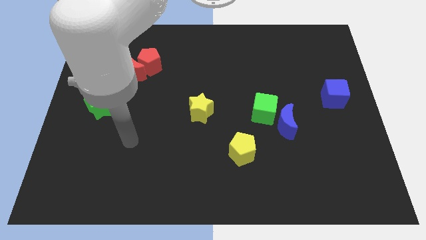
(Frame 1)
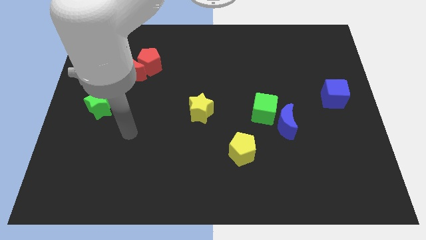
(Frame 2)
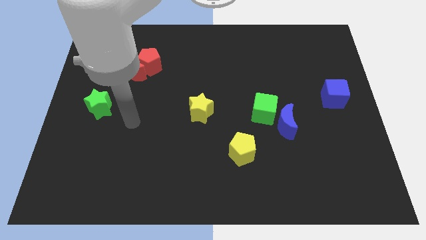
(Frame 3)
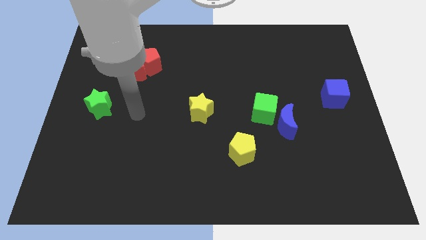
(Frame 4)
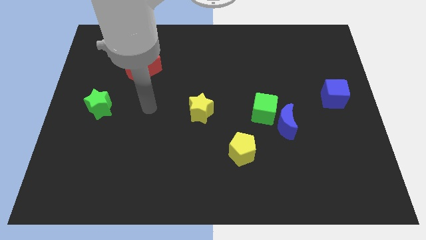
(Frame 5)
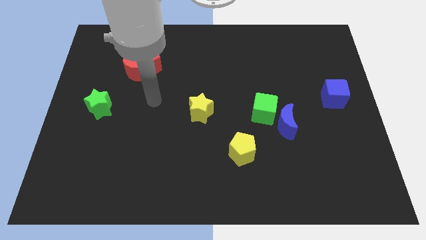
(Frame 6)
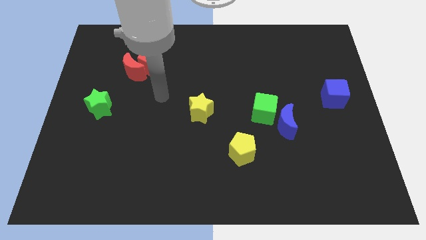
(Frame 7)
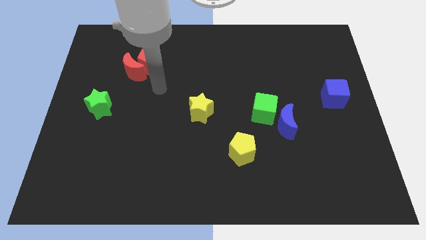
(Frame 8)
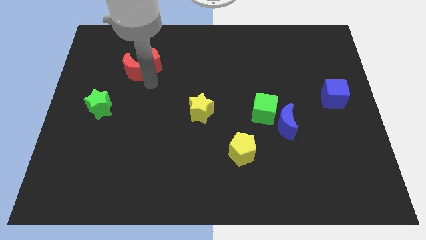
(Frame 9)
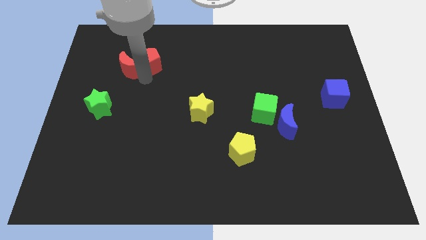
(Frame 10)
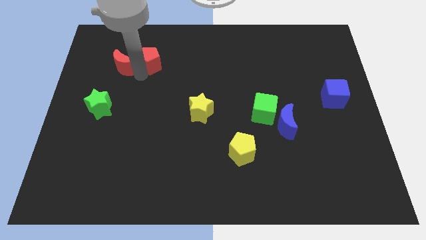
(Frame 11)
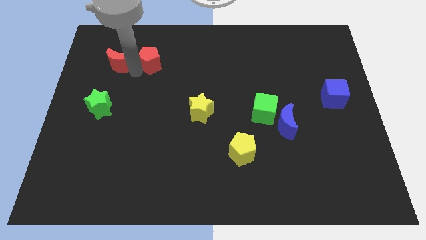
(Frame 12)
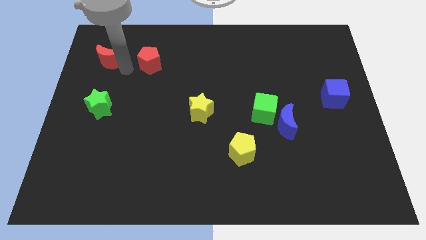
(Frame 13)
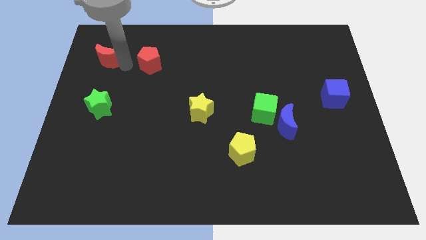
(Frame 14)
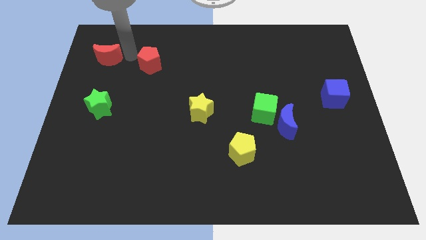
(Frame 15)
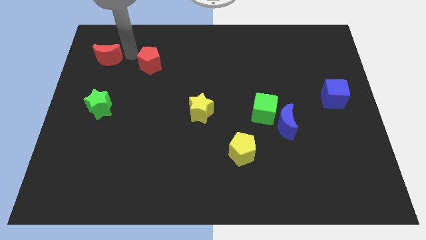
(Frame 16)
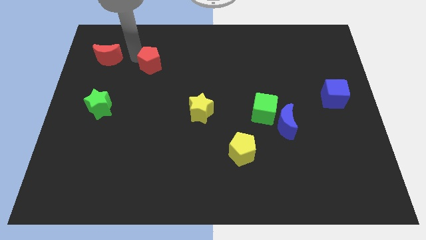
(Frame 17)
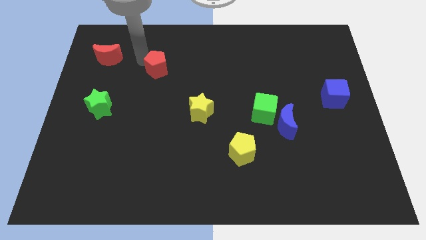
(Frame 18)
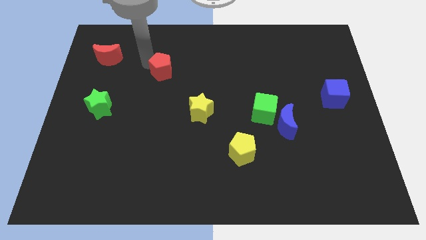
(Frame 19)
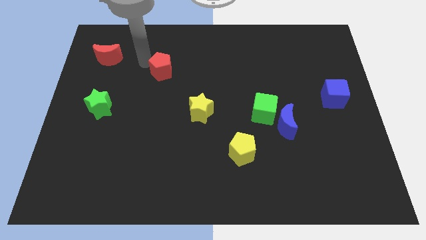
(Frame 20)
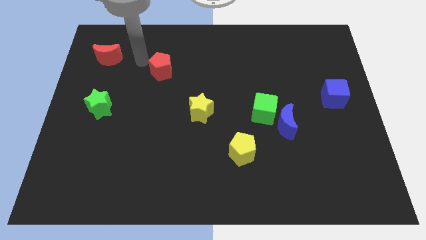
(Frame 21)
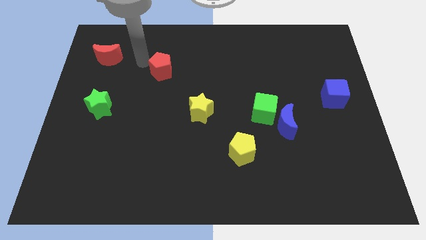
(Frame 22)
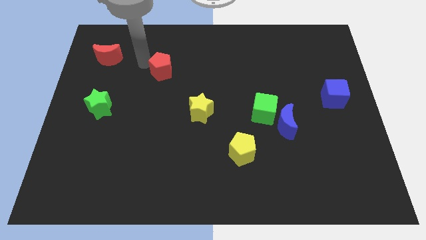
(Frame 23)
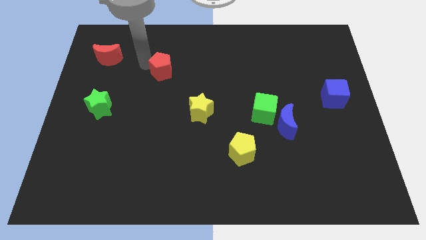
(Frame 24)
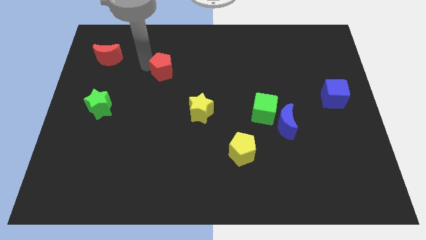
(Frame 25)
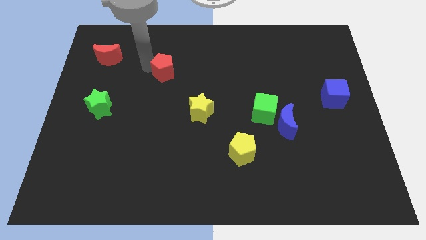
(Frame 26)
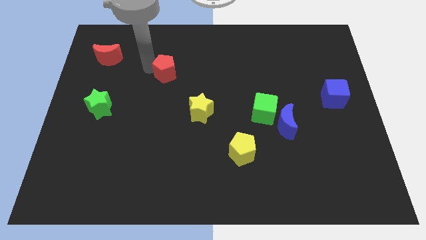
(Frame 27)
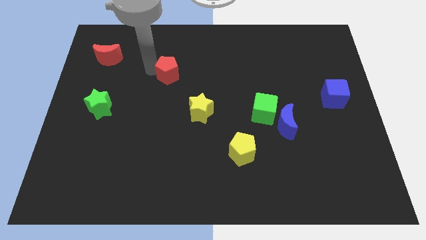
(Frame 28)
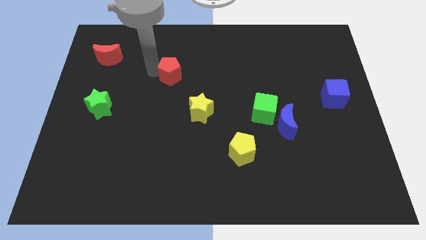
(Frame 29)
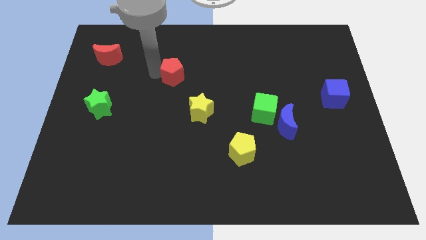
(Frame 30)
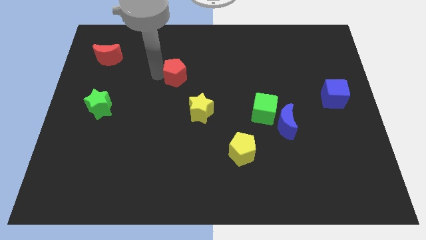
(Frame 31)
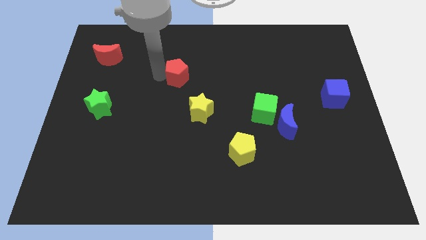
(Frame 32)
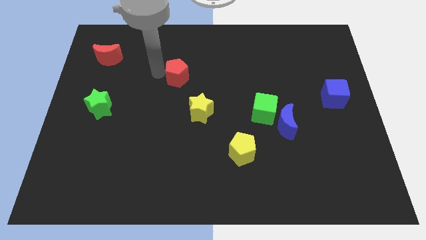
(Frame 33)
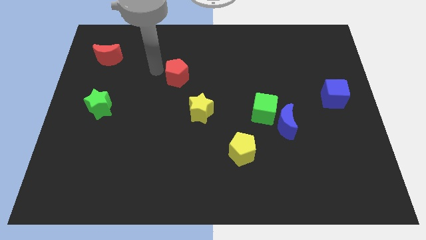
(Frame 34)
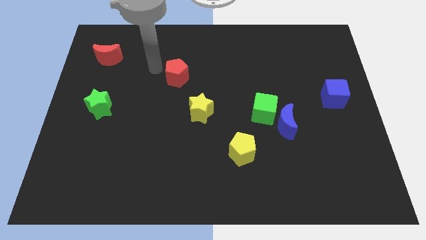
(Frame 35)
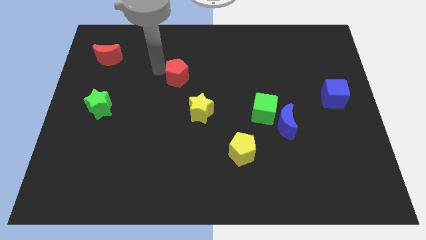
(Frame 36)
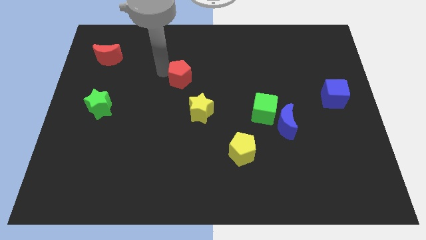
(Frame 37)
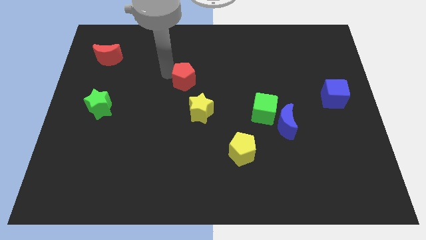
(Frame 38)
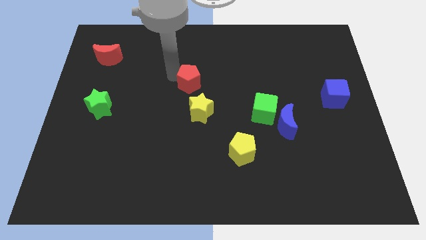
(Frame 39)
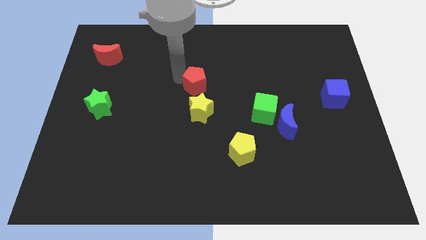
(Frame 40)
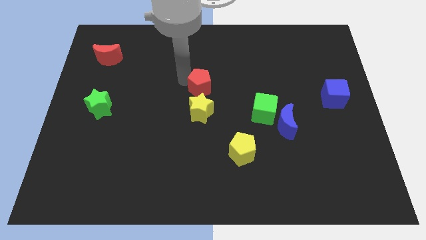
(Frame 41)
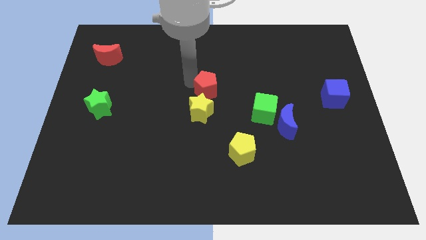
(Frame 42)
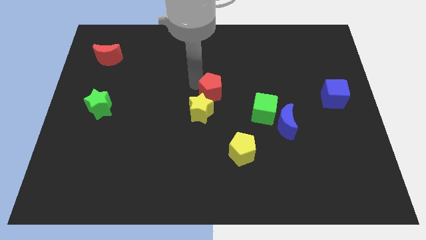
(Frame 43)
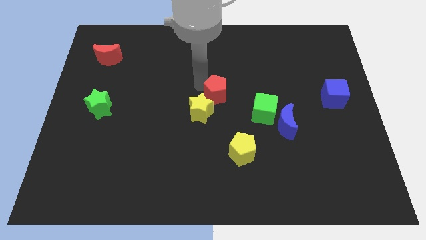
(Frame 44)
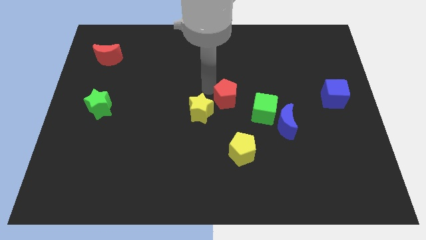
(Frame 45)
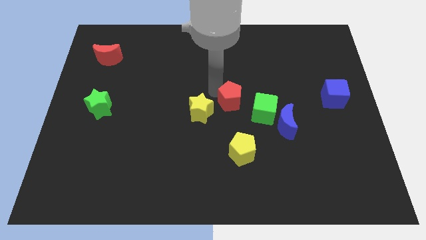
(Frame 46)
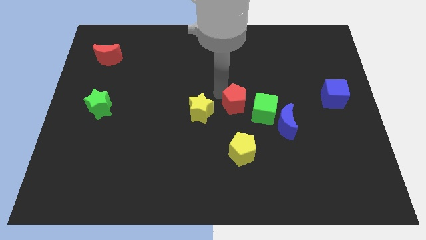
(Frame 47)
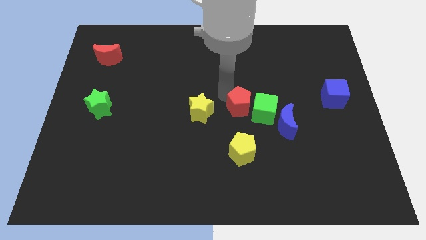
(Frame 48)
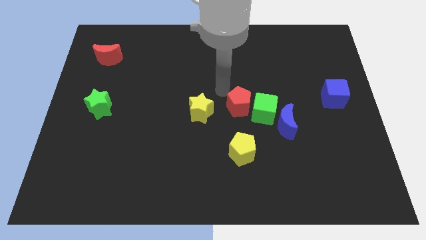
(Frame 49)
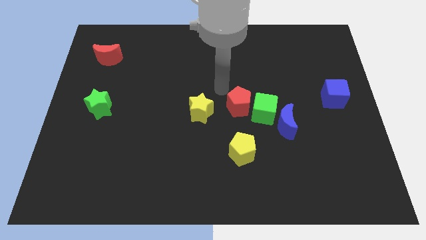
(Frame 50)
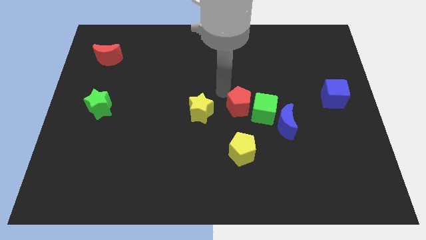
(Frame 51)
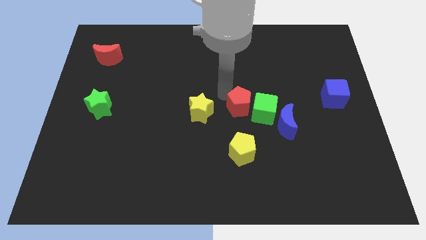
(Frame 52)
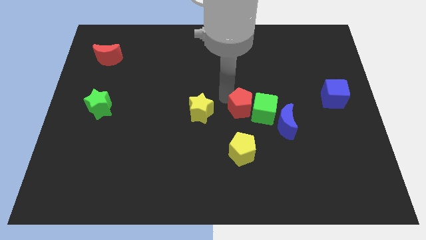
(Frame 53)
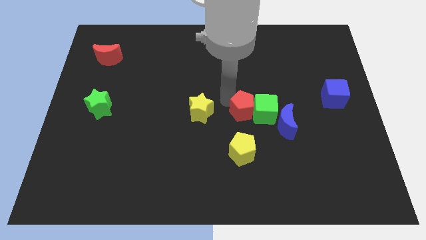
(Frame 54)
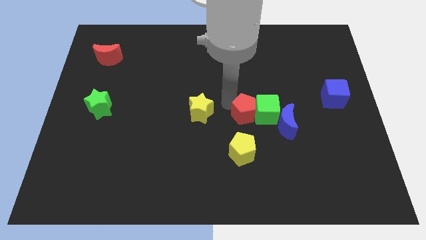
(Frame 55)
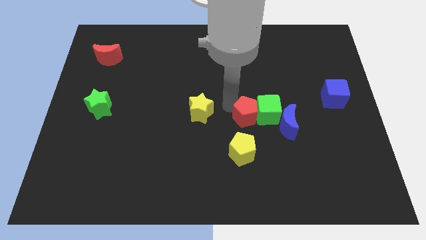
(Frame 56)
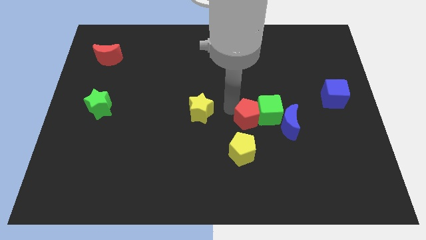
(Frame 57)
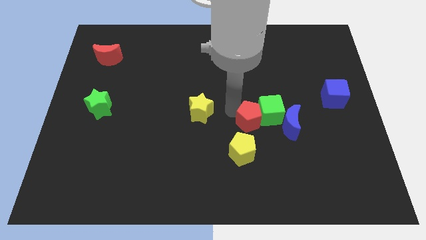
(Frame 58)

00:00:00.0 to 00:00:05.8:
move the red pentagon to the top right side of the yellow pentagon

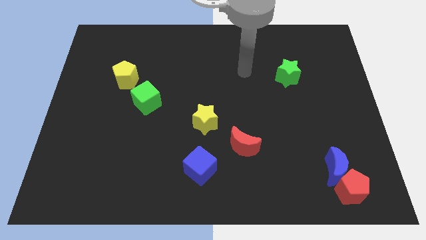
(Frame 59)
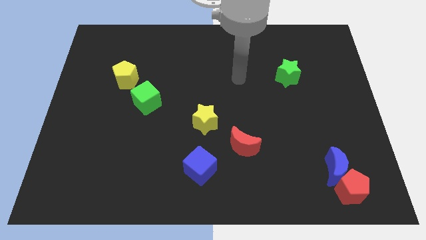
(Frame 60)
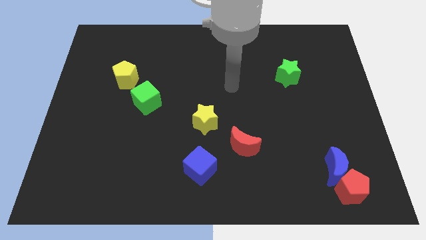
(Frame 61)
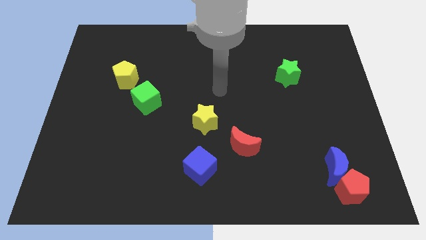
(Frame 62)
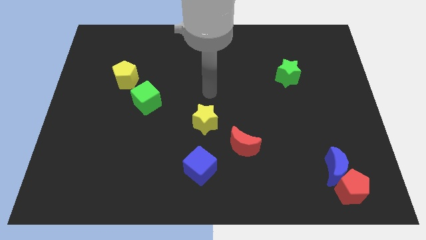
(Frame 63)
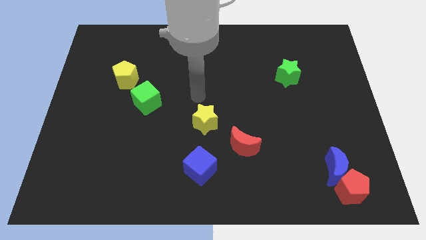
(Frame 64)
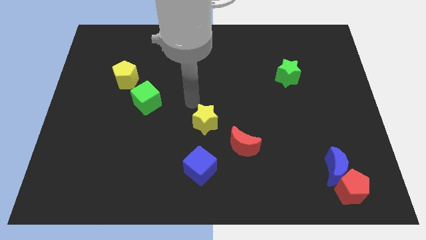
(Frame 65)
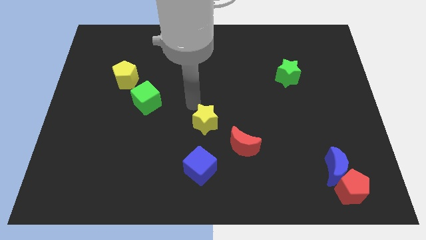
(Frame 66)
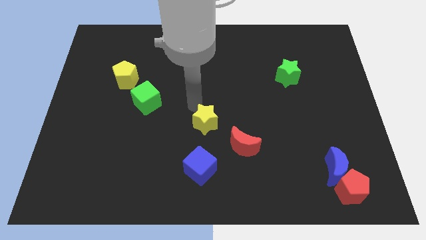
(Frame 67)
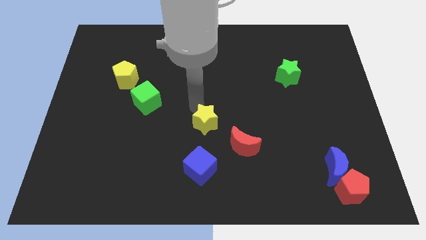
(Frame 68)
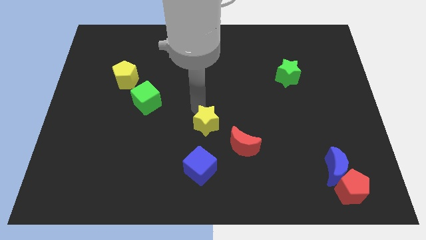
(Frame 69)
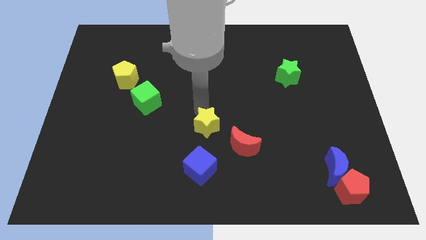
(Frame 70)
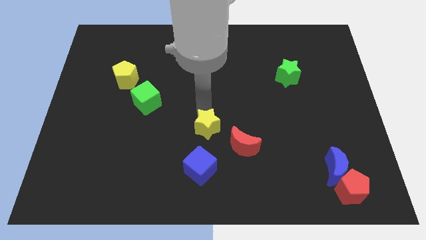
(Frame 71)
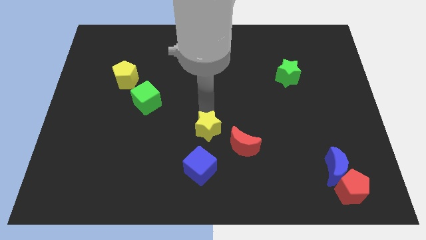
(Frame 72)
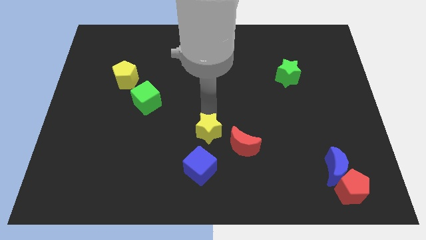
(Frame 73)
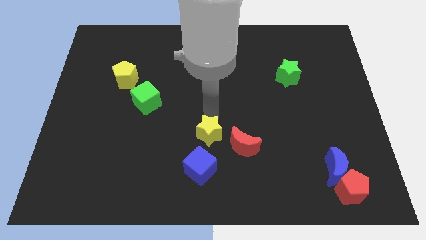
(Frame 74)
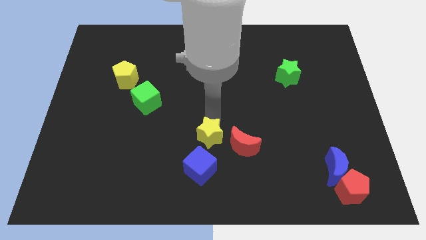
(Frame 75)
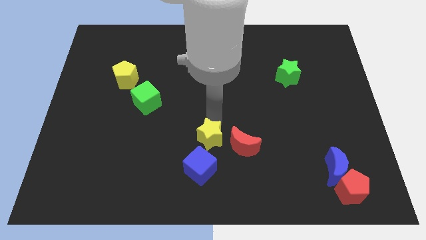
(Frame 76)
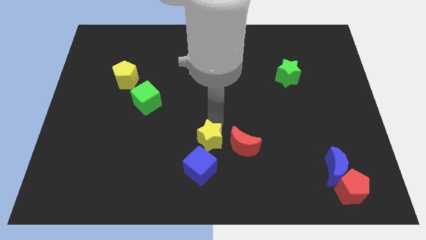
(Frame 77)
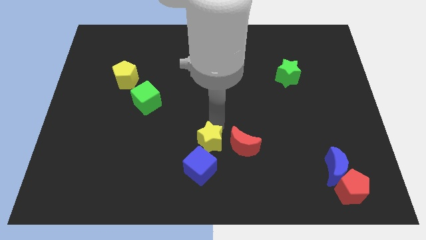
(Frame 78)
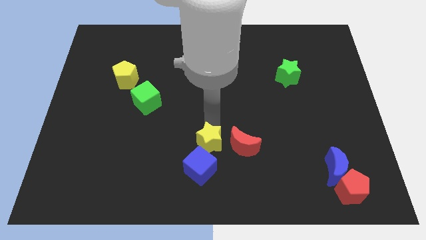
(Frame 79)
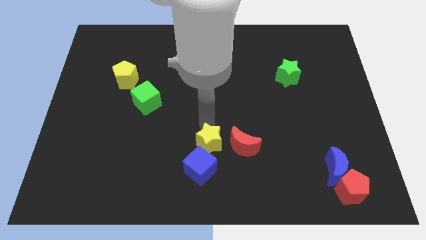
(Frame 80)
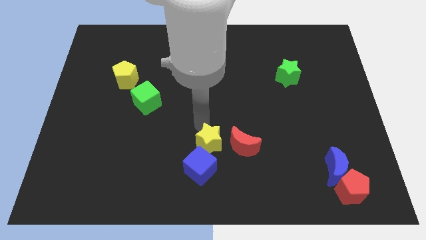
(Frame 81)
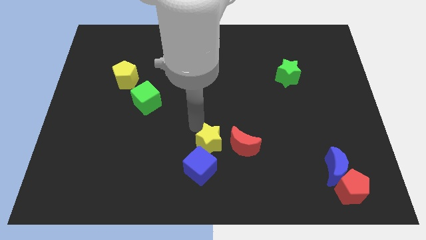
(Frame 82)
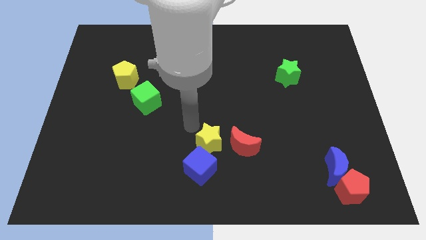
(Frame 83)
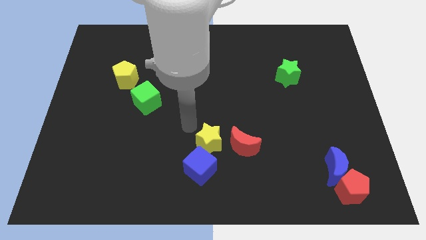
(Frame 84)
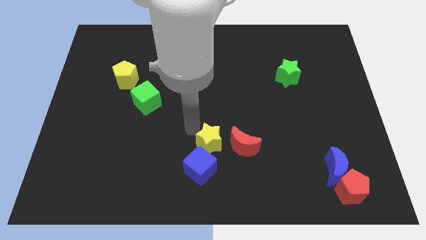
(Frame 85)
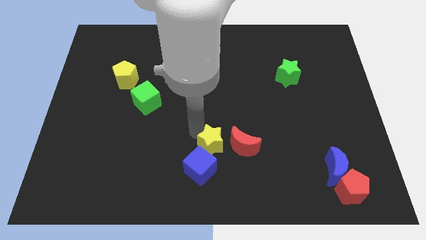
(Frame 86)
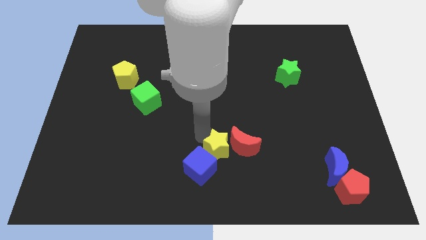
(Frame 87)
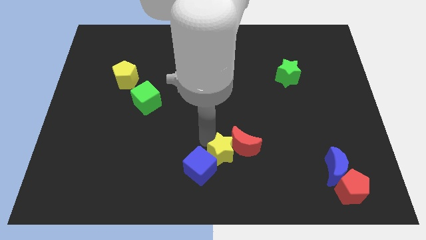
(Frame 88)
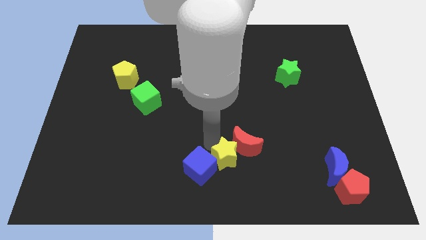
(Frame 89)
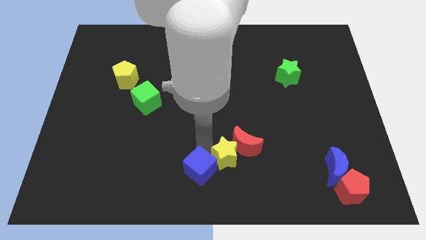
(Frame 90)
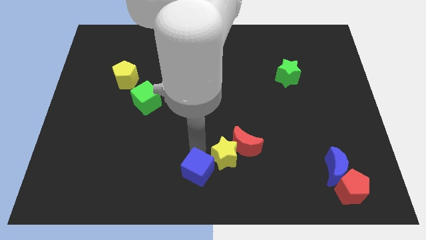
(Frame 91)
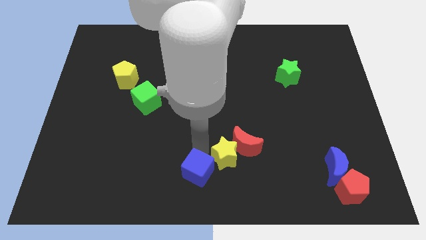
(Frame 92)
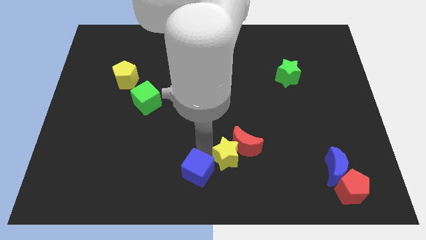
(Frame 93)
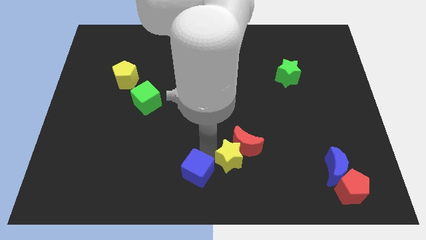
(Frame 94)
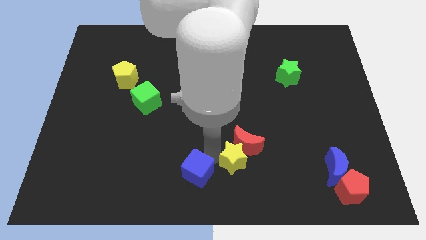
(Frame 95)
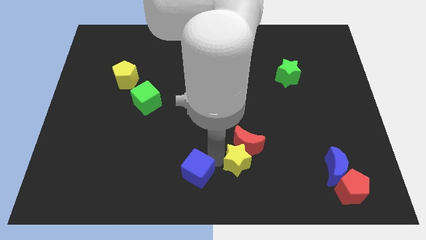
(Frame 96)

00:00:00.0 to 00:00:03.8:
slide the yellow star diagonally down and to the right of the red moon
